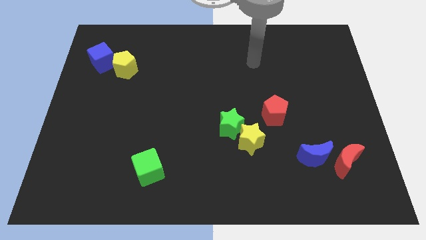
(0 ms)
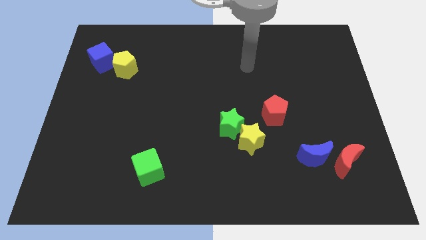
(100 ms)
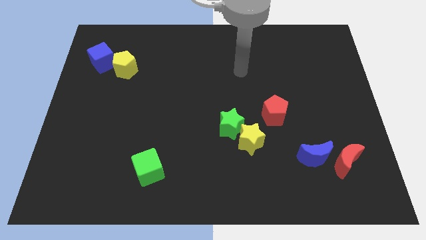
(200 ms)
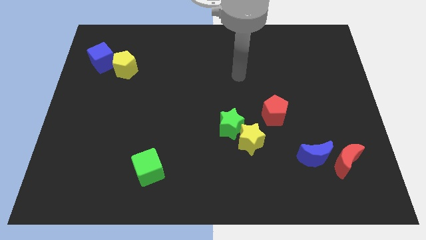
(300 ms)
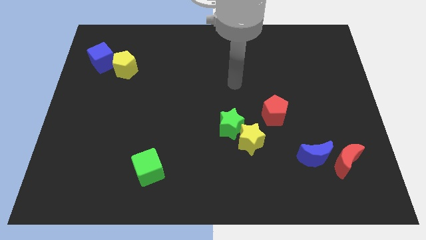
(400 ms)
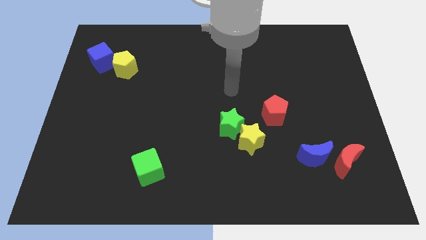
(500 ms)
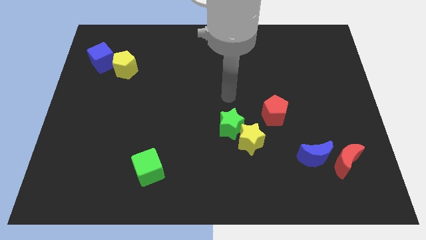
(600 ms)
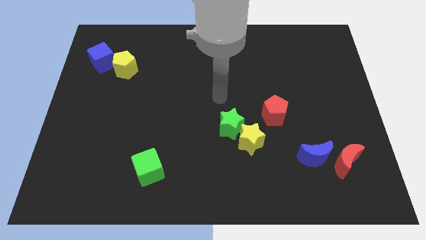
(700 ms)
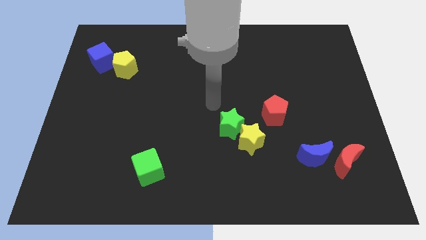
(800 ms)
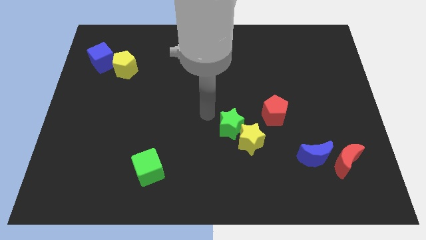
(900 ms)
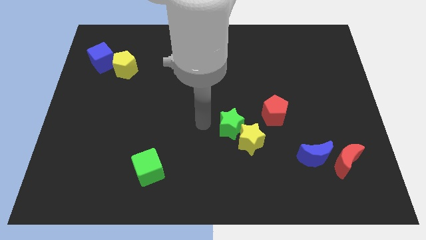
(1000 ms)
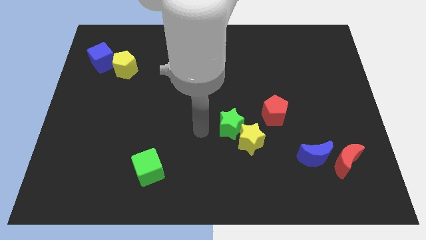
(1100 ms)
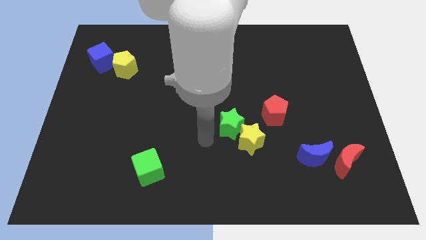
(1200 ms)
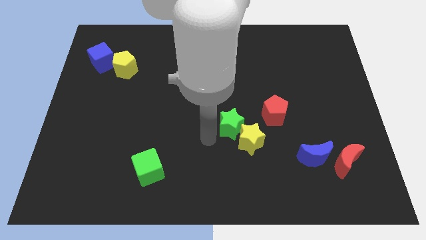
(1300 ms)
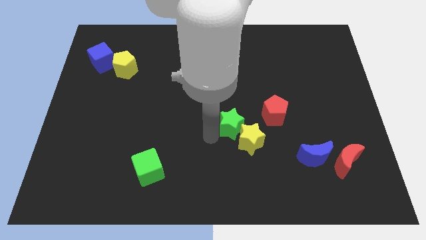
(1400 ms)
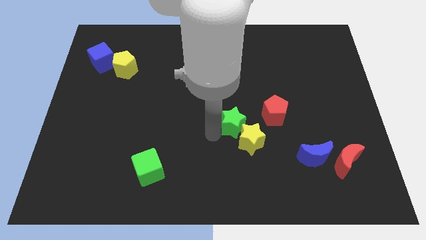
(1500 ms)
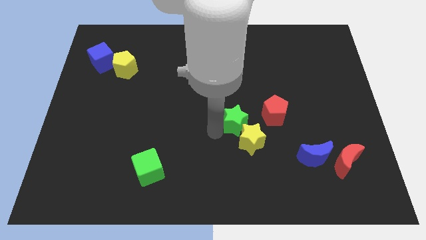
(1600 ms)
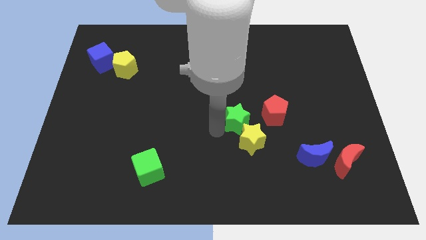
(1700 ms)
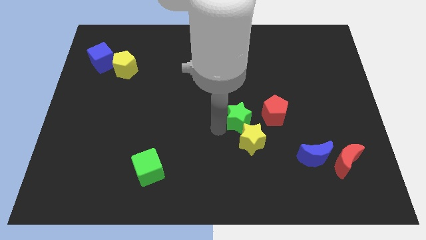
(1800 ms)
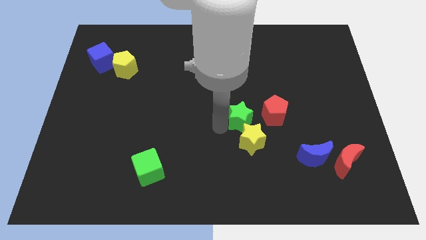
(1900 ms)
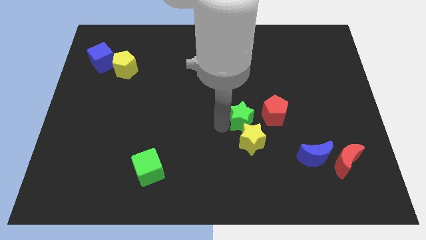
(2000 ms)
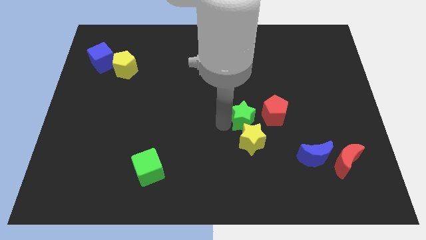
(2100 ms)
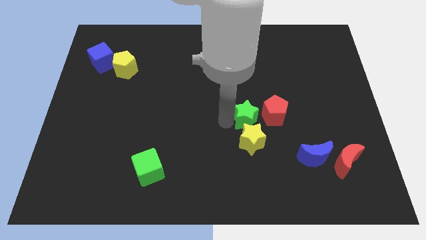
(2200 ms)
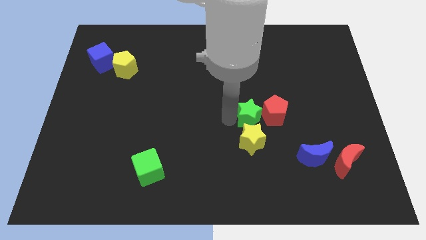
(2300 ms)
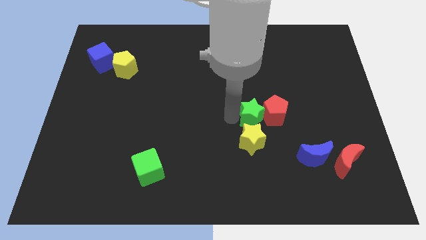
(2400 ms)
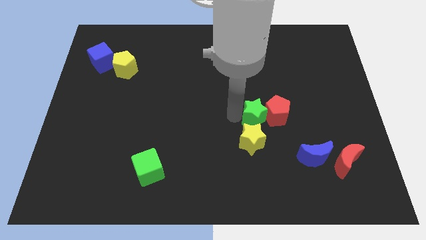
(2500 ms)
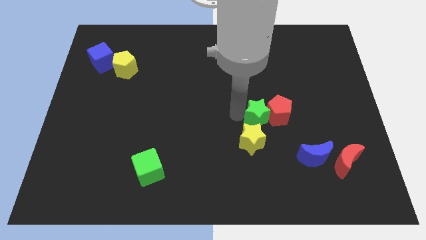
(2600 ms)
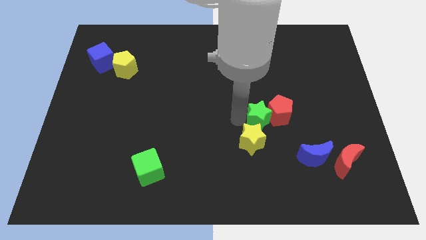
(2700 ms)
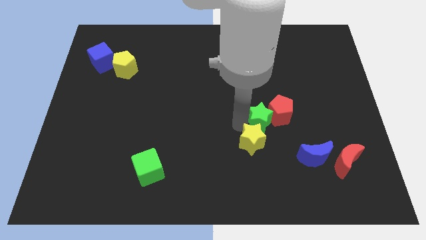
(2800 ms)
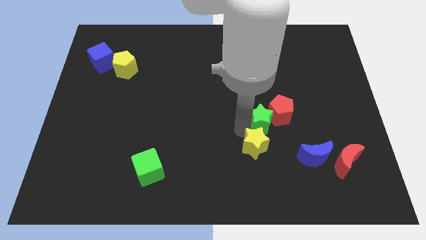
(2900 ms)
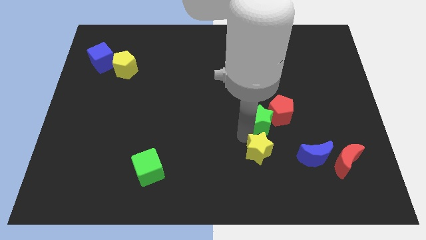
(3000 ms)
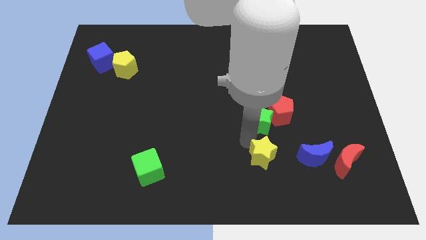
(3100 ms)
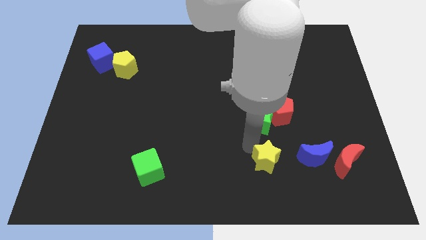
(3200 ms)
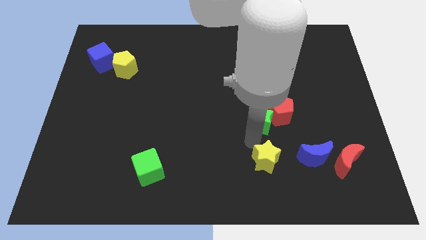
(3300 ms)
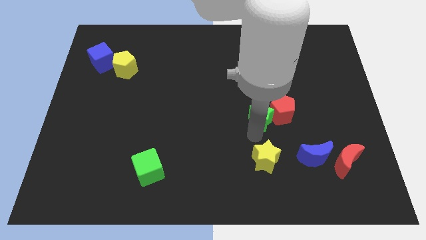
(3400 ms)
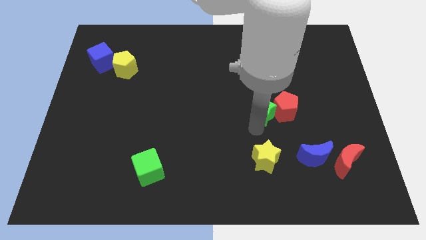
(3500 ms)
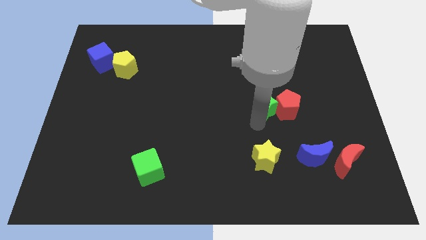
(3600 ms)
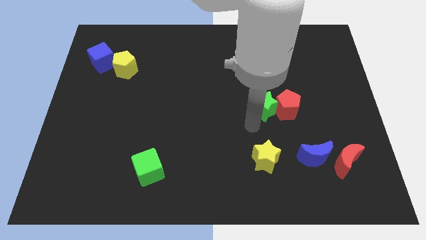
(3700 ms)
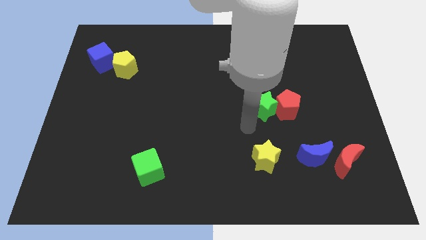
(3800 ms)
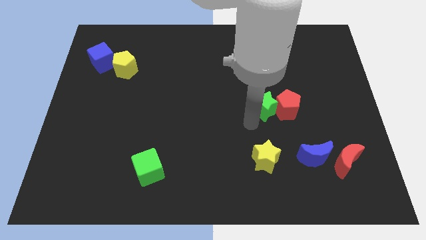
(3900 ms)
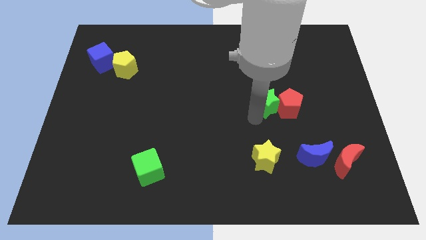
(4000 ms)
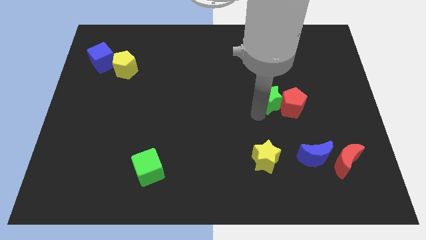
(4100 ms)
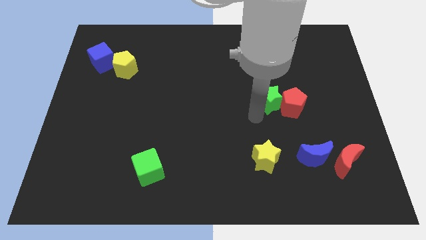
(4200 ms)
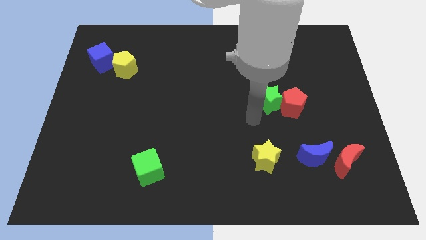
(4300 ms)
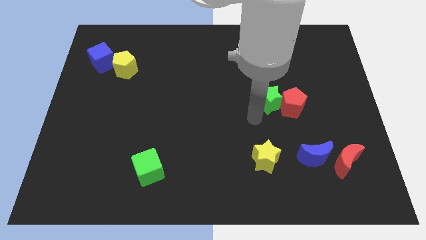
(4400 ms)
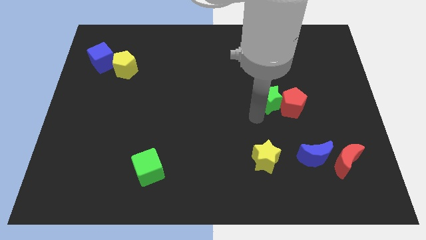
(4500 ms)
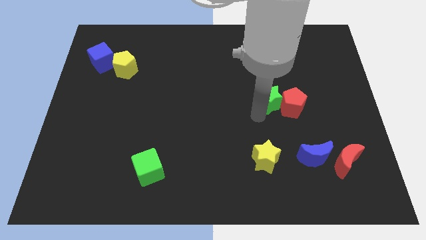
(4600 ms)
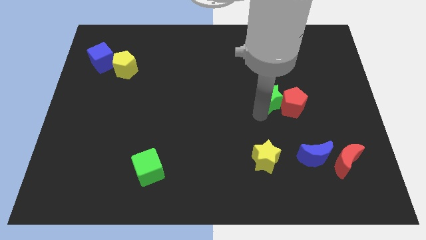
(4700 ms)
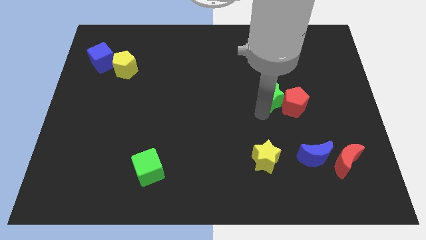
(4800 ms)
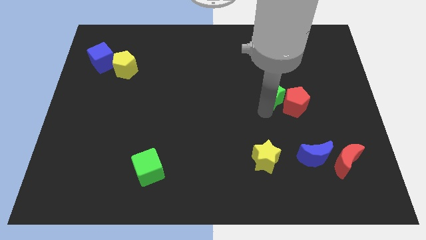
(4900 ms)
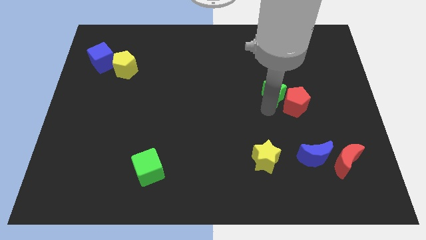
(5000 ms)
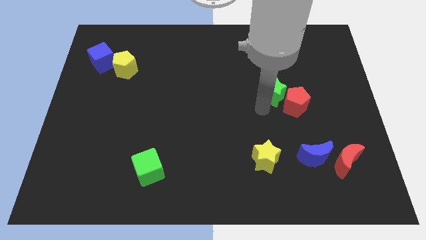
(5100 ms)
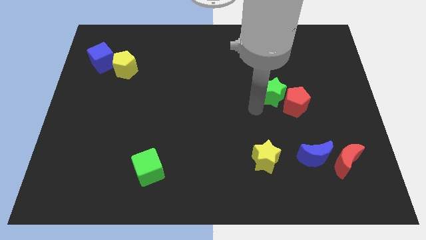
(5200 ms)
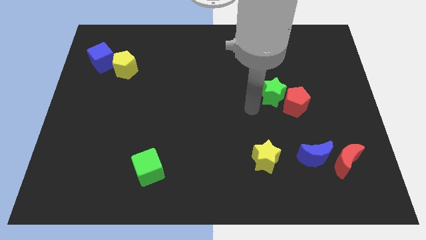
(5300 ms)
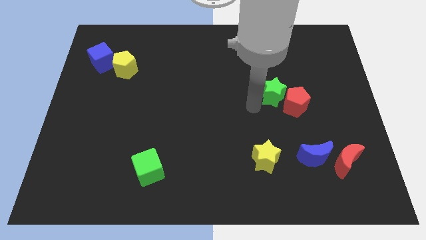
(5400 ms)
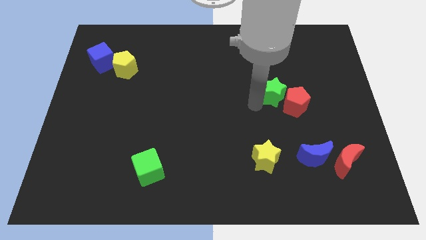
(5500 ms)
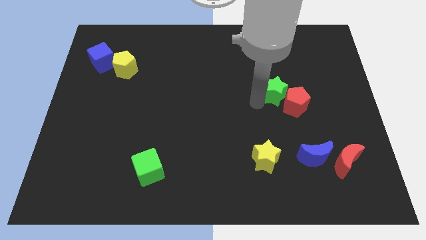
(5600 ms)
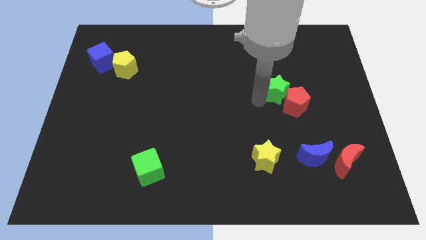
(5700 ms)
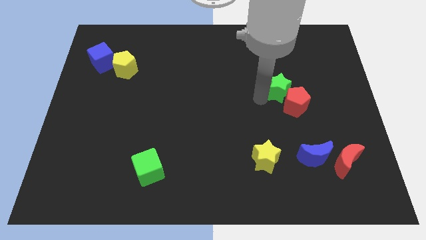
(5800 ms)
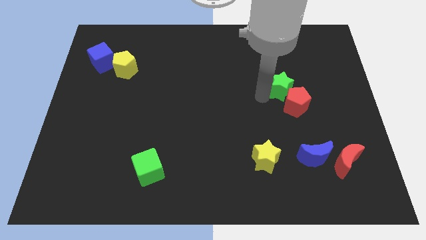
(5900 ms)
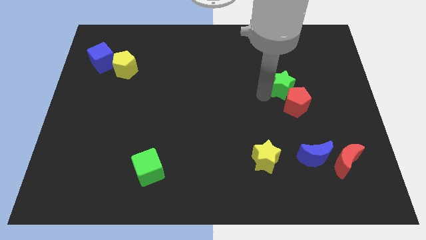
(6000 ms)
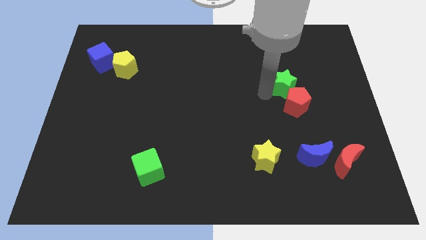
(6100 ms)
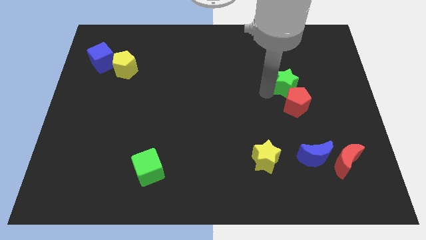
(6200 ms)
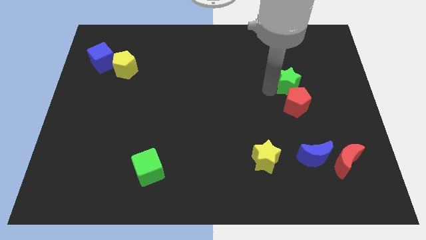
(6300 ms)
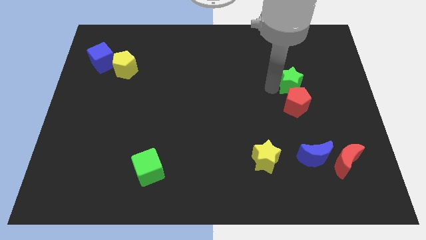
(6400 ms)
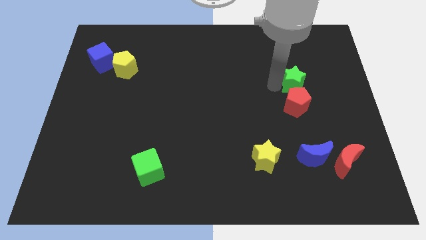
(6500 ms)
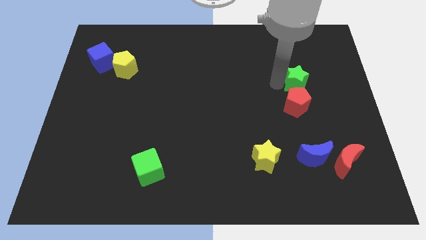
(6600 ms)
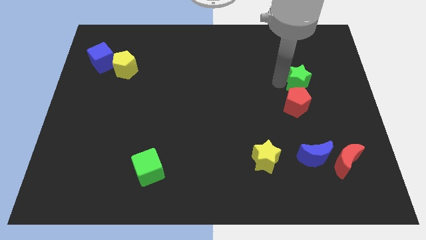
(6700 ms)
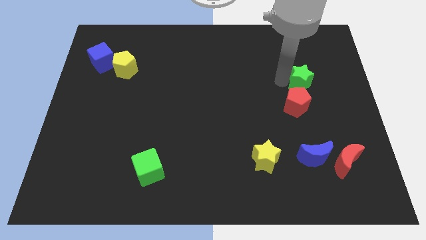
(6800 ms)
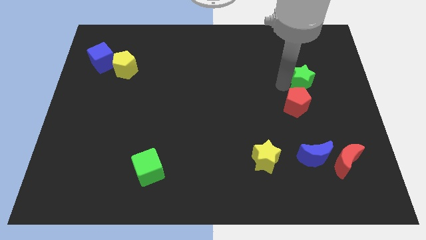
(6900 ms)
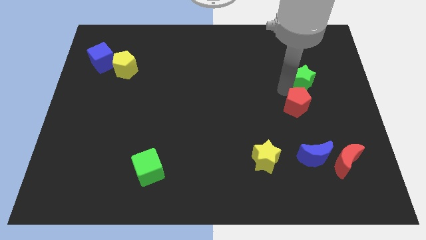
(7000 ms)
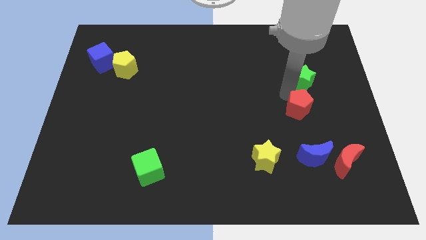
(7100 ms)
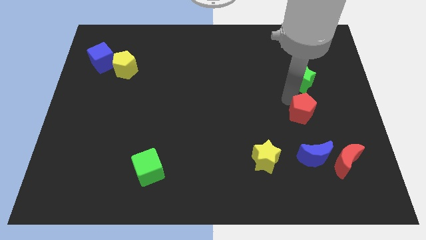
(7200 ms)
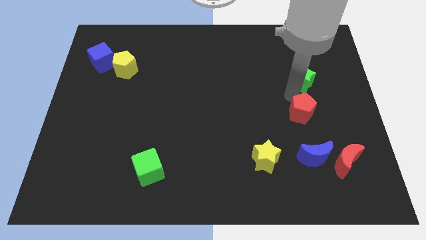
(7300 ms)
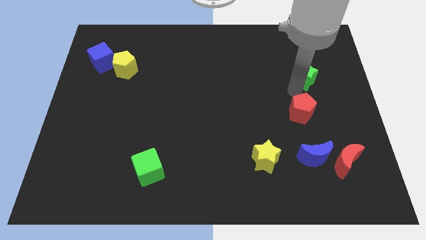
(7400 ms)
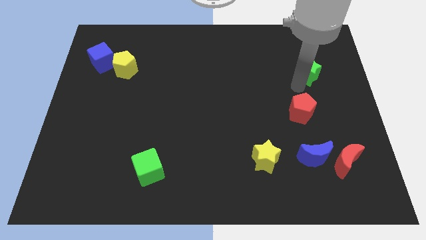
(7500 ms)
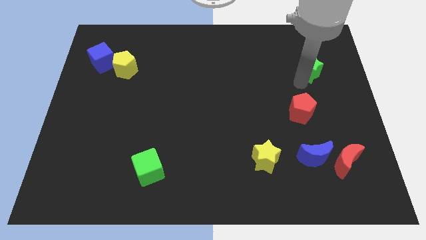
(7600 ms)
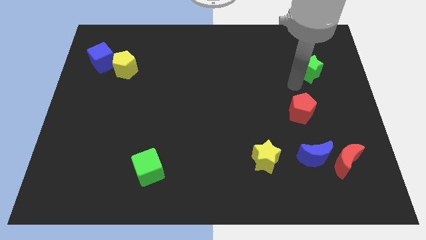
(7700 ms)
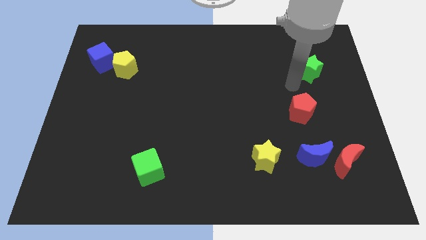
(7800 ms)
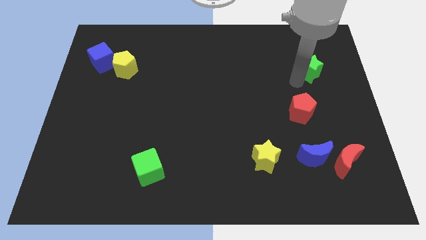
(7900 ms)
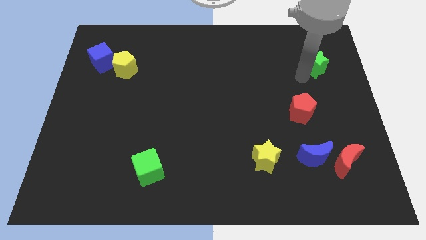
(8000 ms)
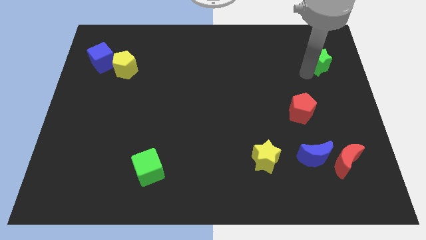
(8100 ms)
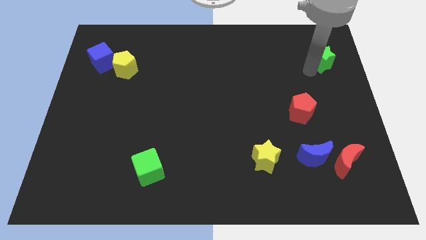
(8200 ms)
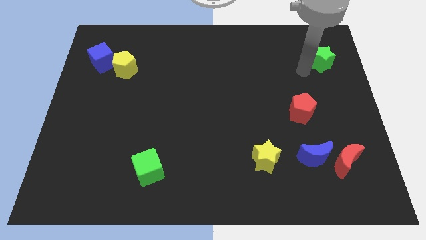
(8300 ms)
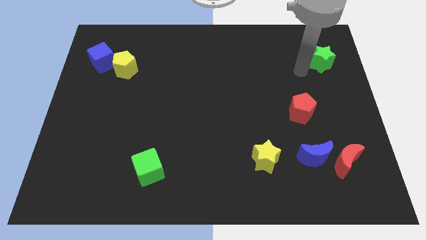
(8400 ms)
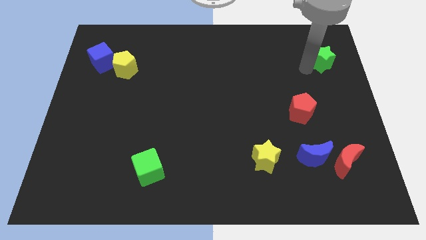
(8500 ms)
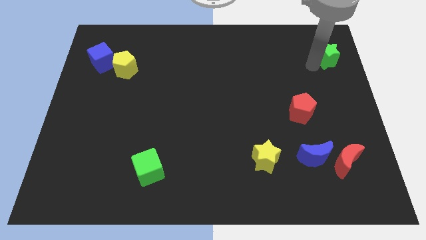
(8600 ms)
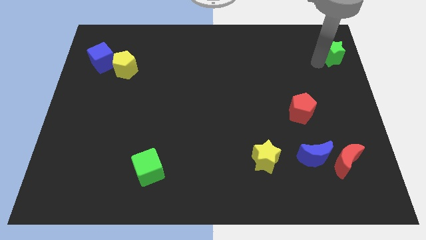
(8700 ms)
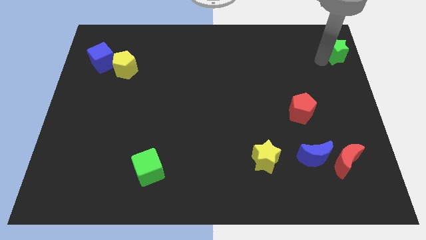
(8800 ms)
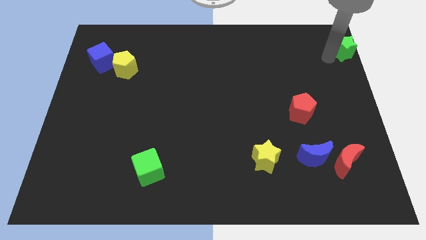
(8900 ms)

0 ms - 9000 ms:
put the green star to the top right corner
